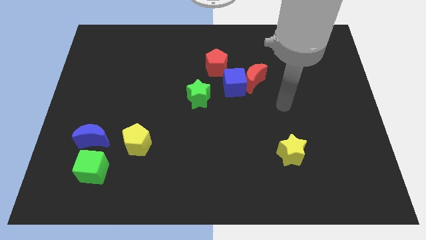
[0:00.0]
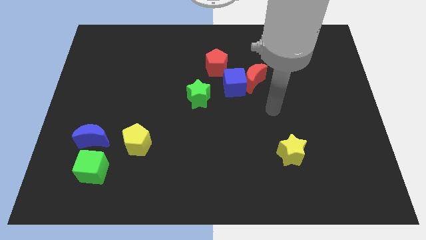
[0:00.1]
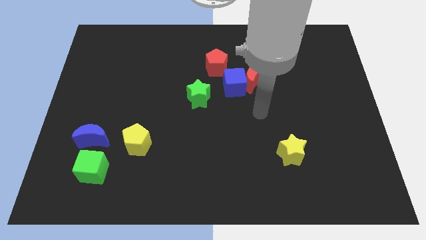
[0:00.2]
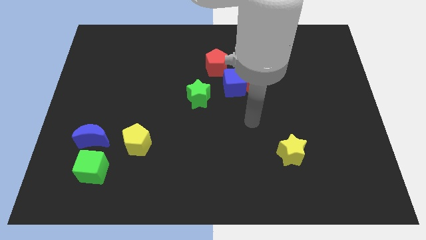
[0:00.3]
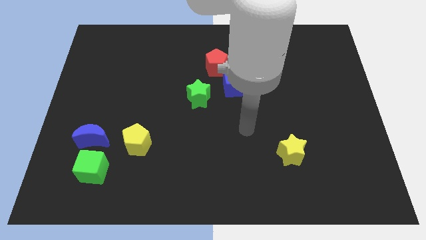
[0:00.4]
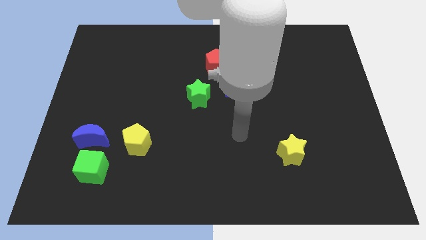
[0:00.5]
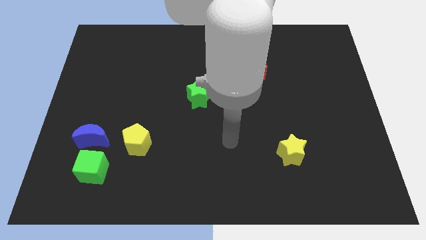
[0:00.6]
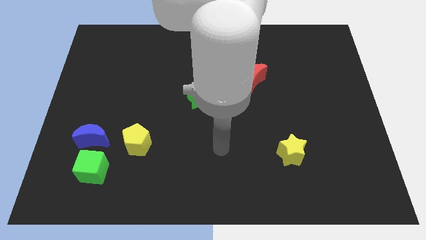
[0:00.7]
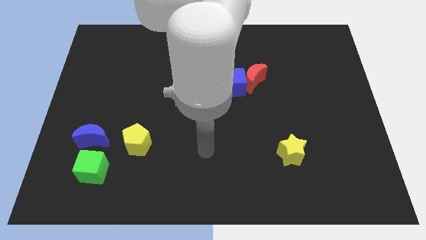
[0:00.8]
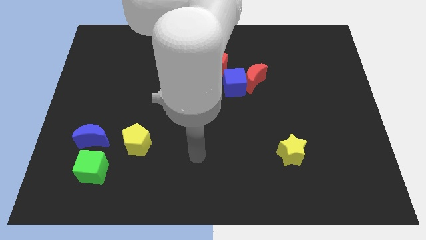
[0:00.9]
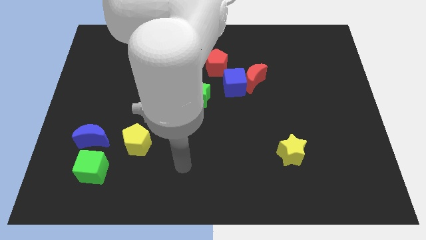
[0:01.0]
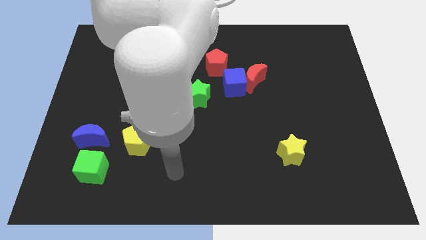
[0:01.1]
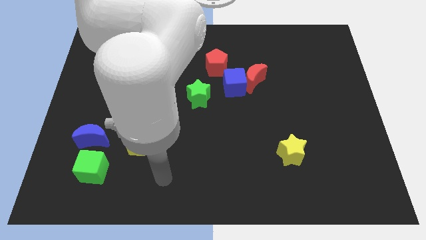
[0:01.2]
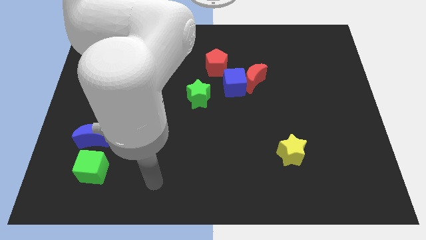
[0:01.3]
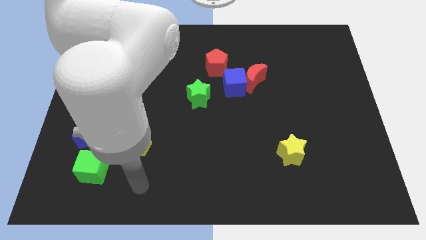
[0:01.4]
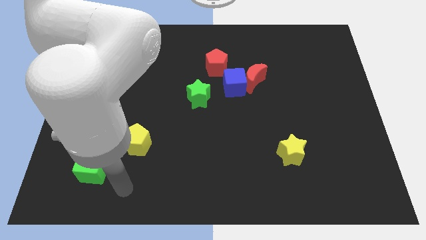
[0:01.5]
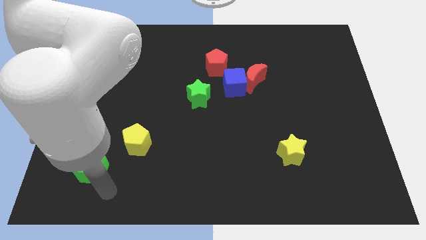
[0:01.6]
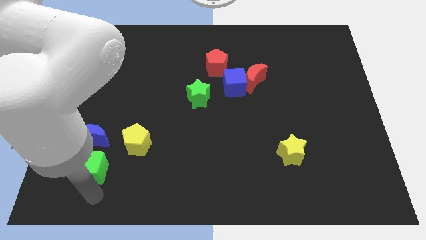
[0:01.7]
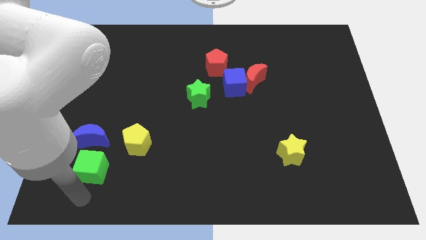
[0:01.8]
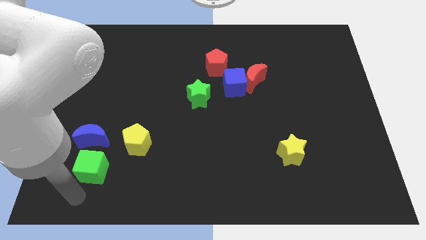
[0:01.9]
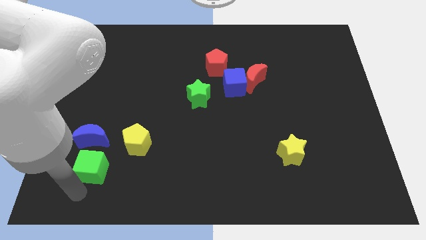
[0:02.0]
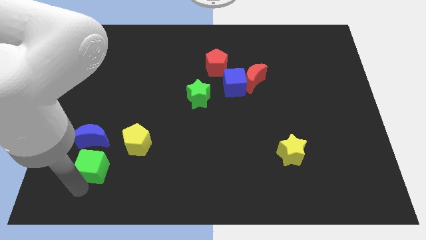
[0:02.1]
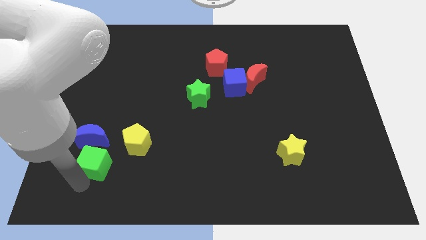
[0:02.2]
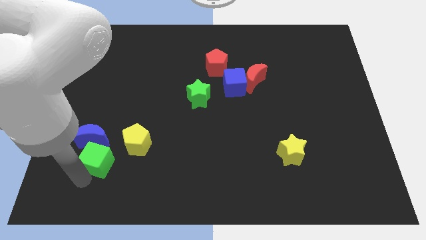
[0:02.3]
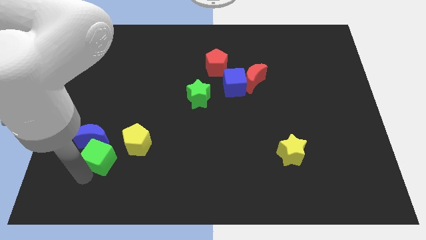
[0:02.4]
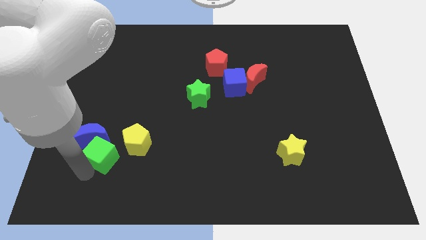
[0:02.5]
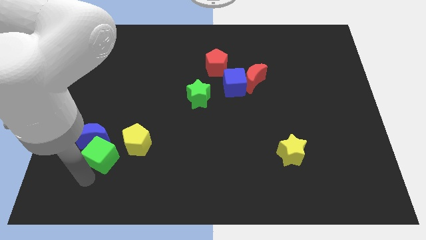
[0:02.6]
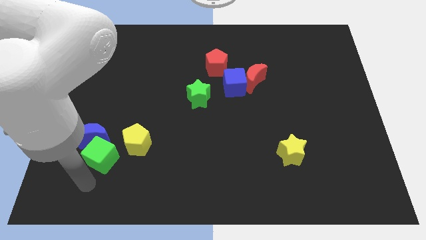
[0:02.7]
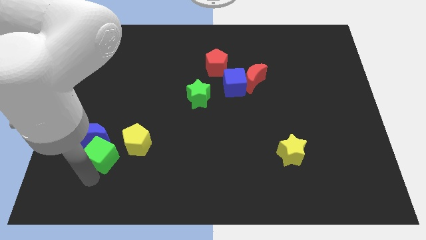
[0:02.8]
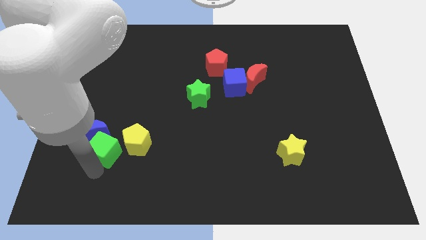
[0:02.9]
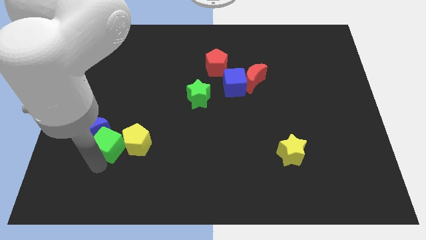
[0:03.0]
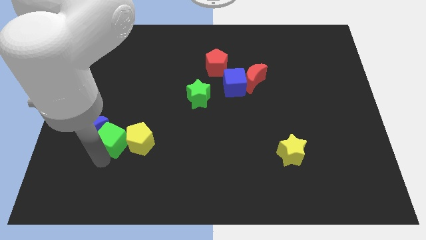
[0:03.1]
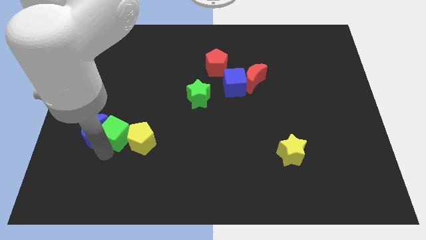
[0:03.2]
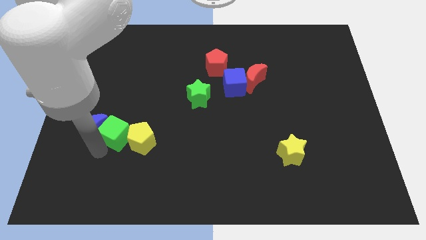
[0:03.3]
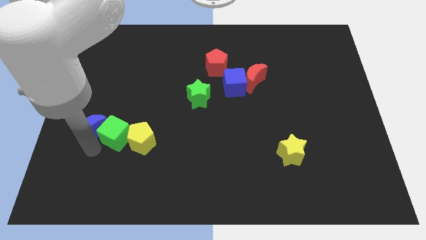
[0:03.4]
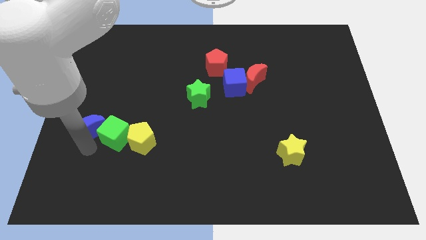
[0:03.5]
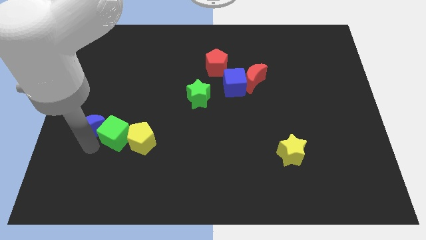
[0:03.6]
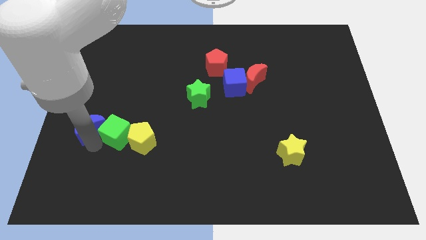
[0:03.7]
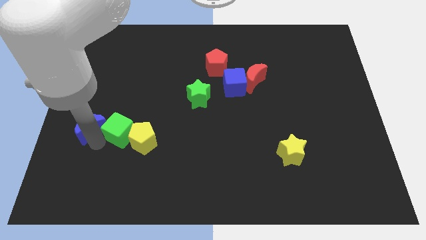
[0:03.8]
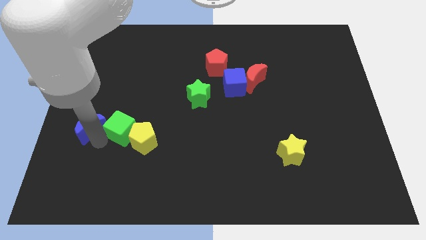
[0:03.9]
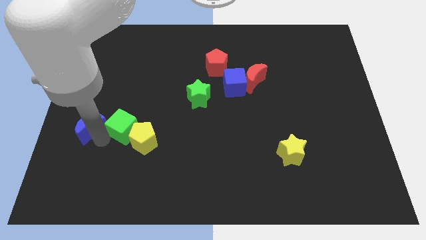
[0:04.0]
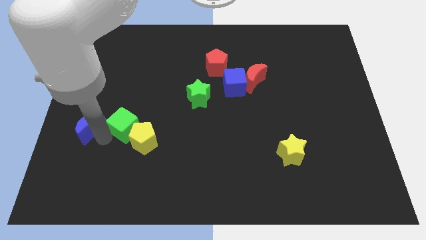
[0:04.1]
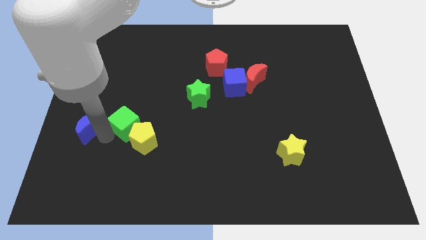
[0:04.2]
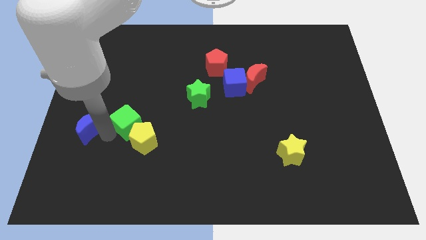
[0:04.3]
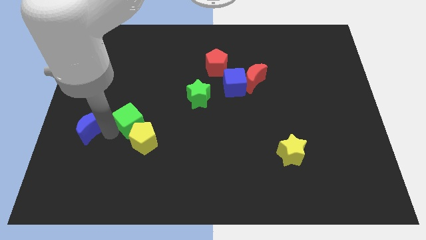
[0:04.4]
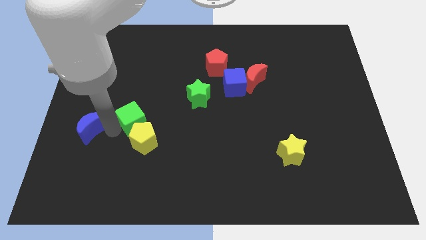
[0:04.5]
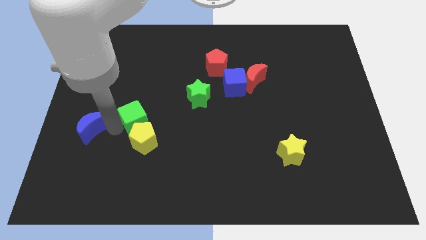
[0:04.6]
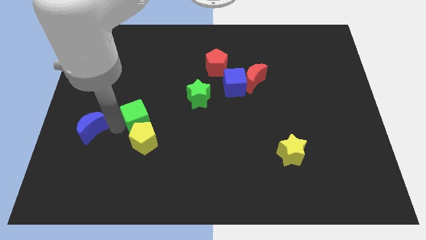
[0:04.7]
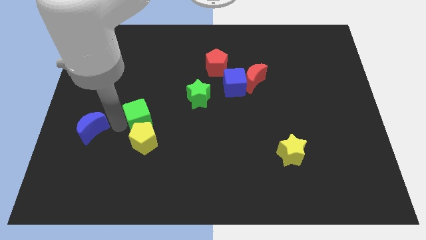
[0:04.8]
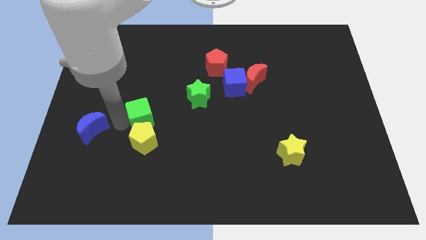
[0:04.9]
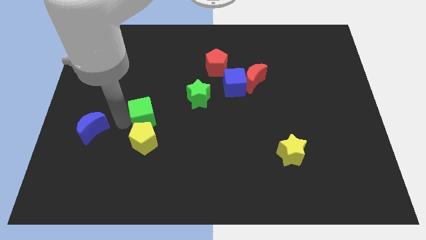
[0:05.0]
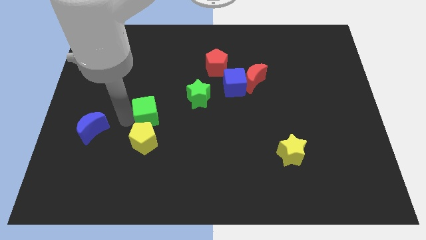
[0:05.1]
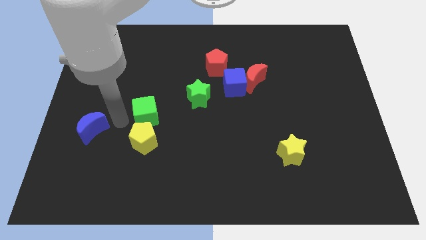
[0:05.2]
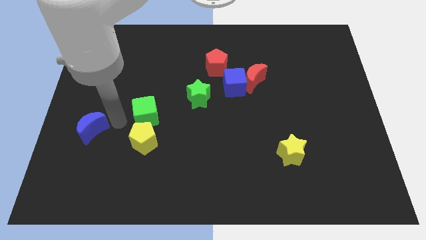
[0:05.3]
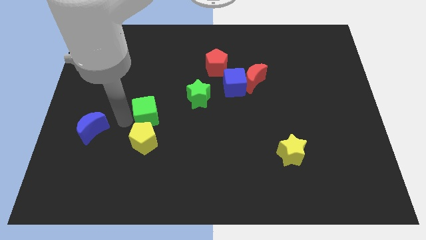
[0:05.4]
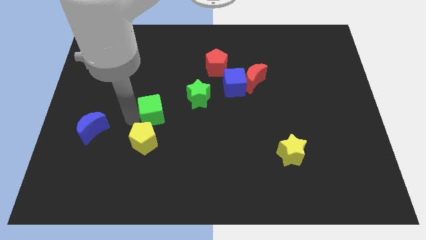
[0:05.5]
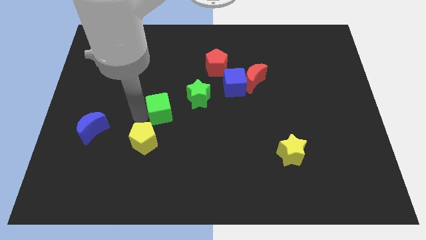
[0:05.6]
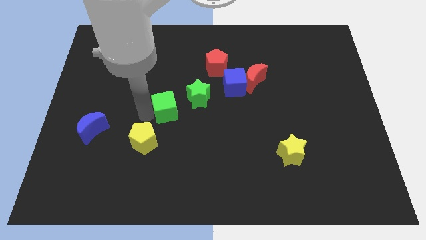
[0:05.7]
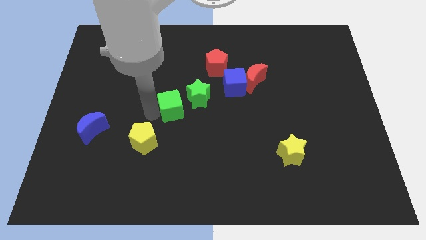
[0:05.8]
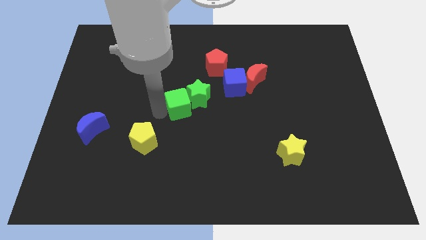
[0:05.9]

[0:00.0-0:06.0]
move the green cube towards the green star

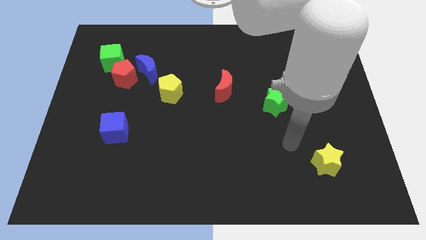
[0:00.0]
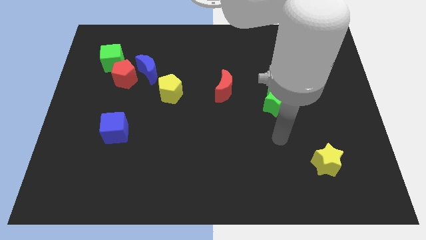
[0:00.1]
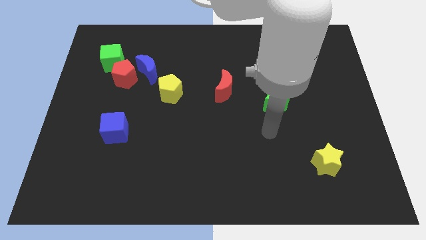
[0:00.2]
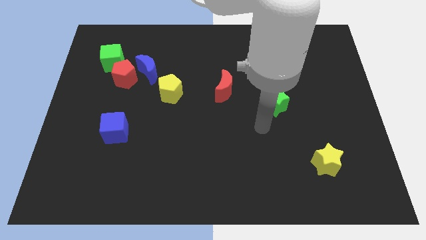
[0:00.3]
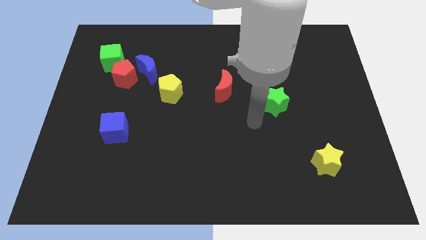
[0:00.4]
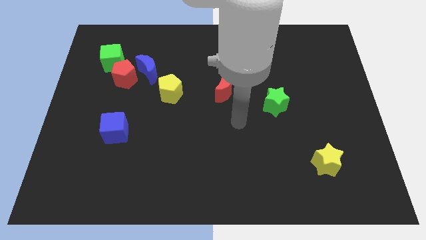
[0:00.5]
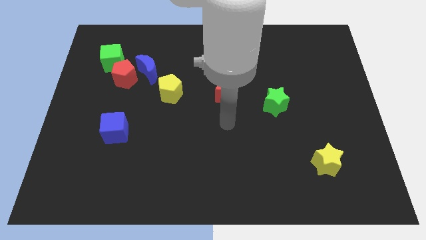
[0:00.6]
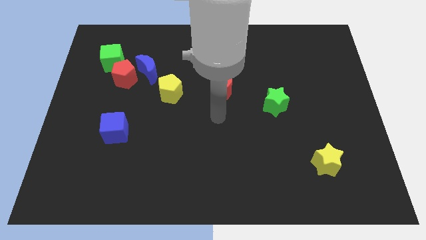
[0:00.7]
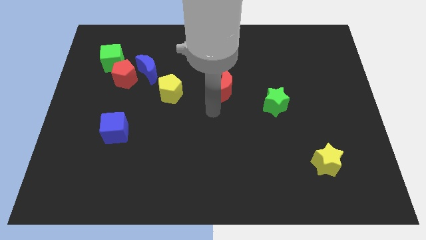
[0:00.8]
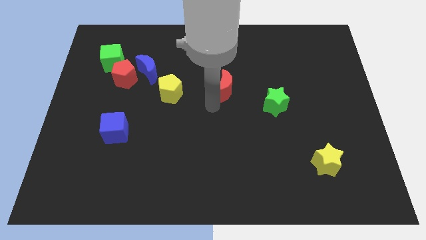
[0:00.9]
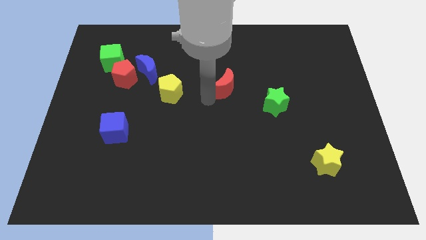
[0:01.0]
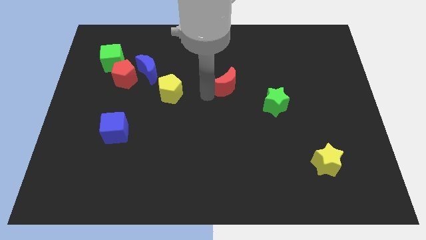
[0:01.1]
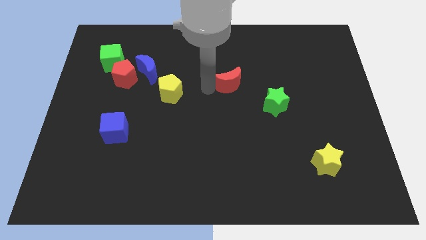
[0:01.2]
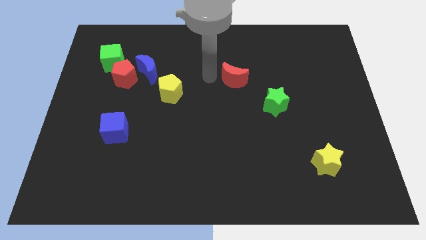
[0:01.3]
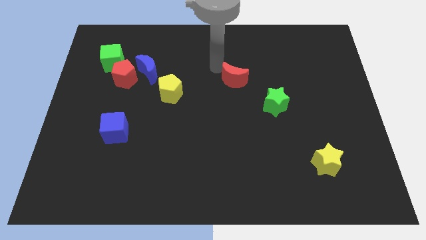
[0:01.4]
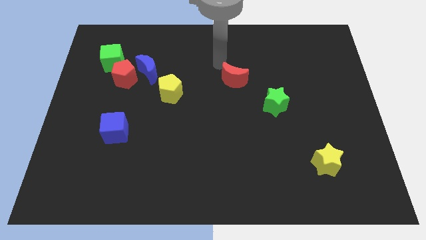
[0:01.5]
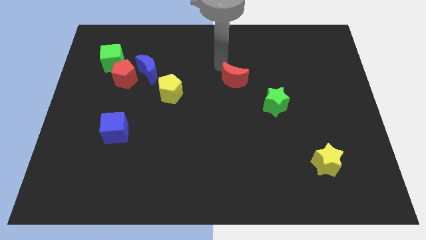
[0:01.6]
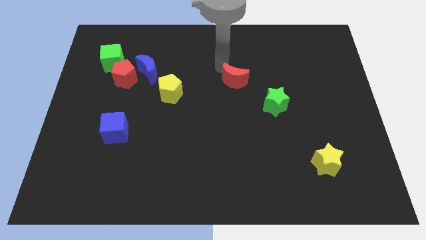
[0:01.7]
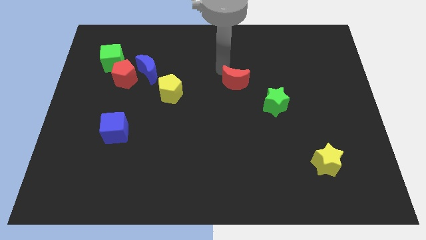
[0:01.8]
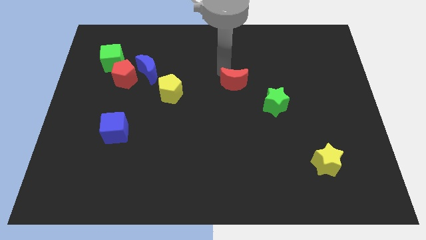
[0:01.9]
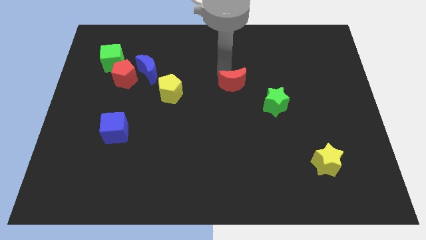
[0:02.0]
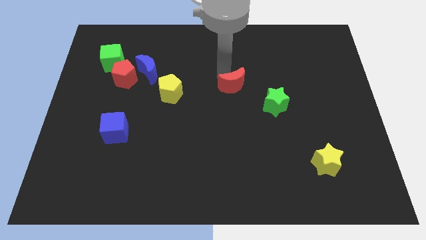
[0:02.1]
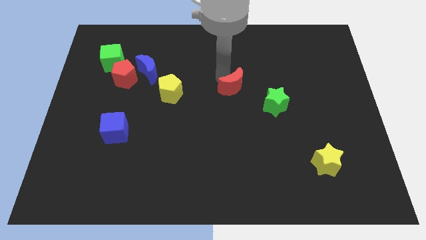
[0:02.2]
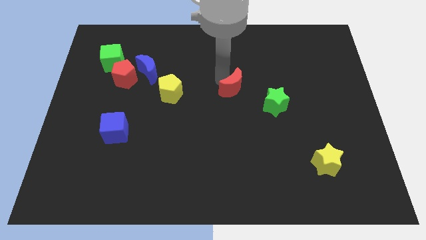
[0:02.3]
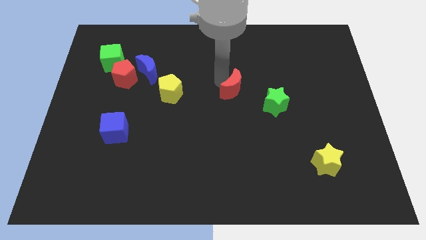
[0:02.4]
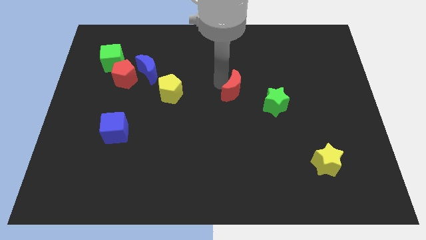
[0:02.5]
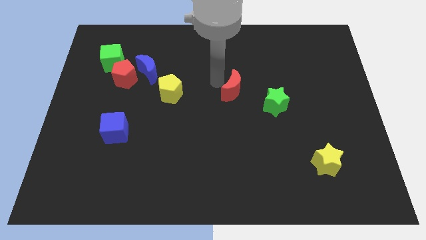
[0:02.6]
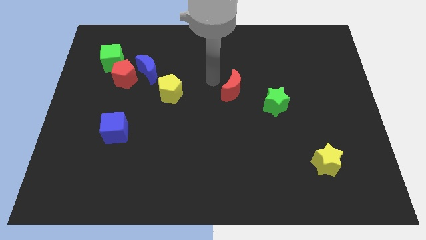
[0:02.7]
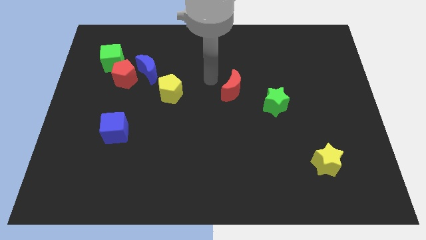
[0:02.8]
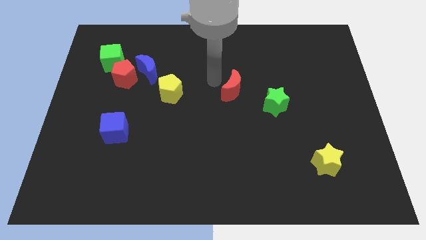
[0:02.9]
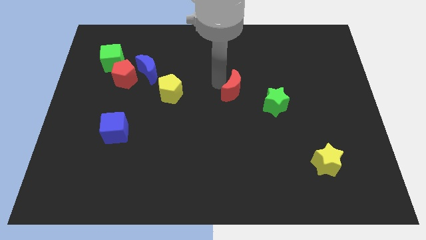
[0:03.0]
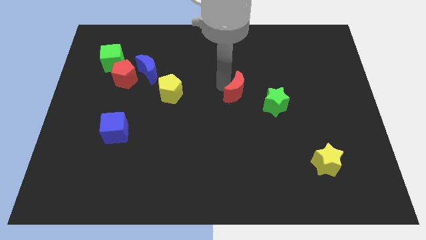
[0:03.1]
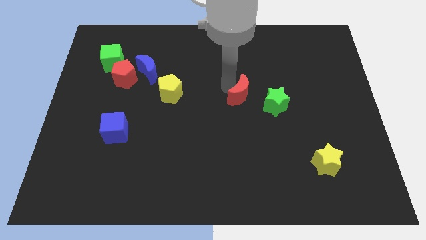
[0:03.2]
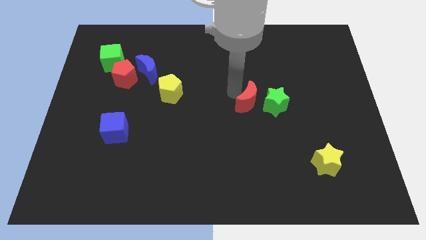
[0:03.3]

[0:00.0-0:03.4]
put the red moon towards the green star
